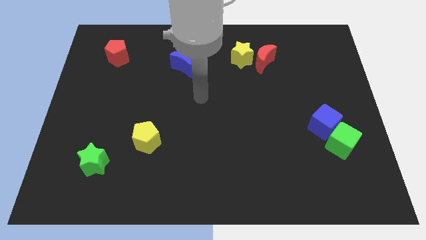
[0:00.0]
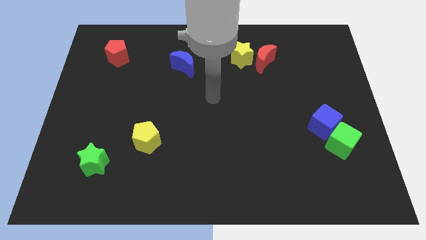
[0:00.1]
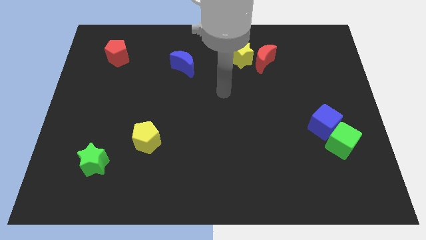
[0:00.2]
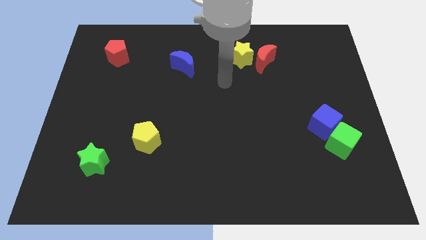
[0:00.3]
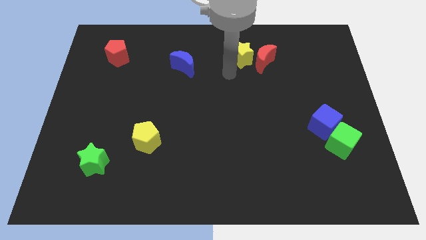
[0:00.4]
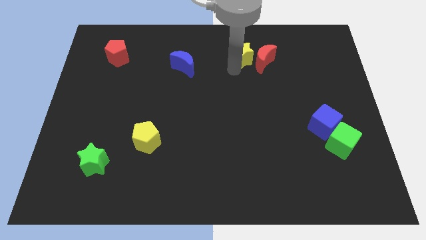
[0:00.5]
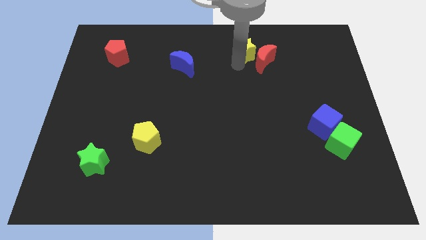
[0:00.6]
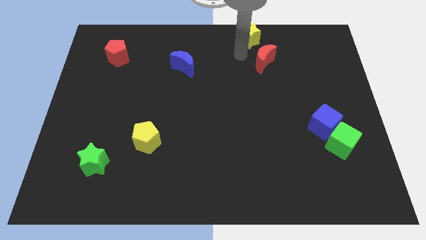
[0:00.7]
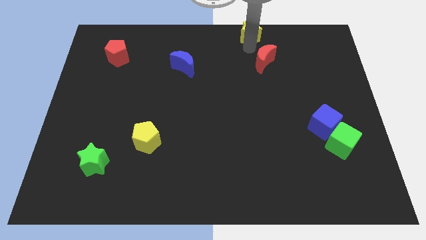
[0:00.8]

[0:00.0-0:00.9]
pull the red moon apart from the yellow star

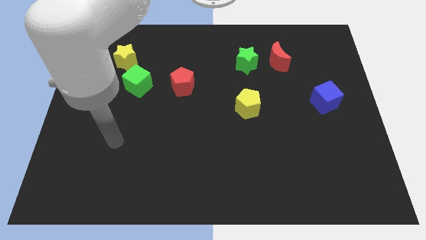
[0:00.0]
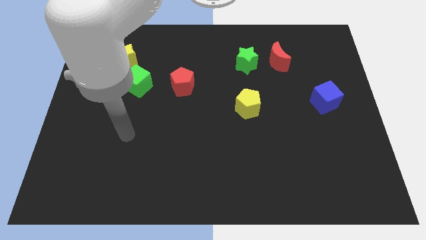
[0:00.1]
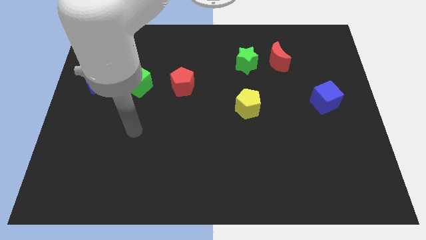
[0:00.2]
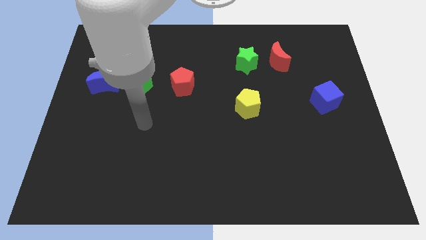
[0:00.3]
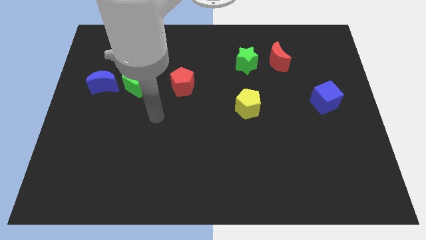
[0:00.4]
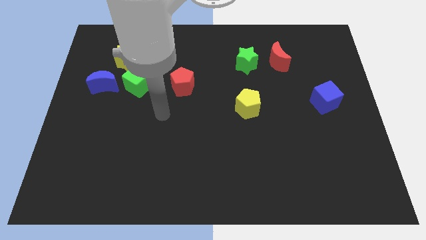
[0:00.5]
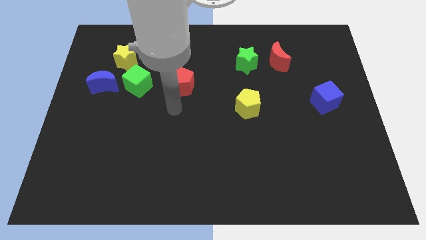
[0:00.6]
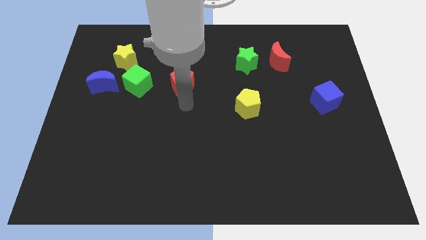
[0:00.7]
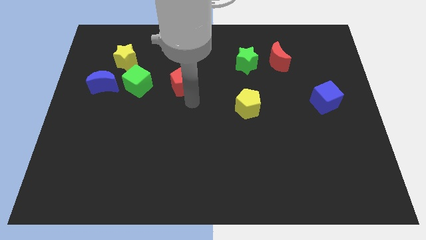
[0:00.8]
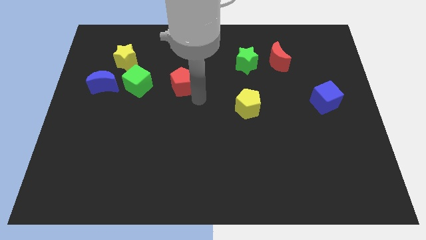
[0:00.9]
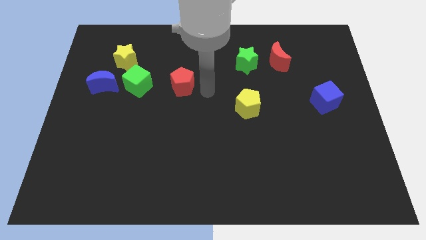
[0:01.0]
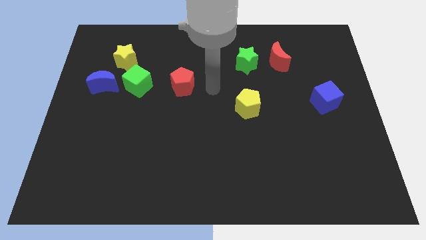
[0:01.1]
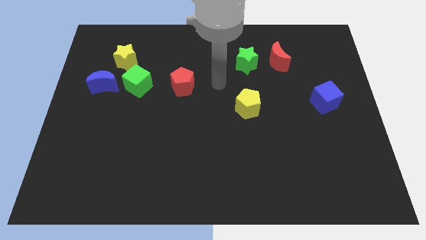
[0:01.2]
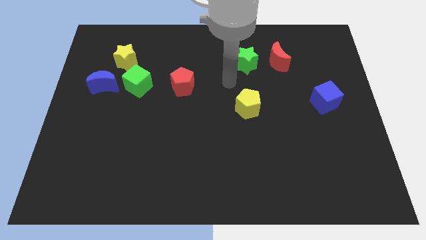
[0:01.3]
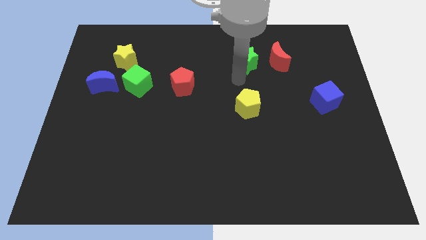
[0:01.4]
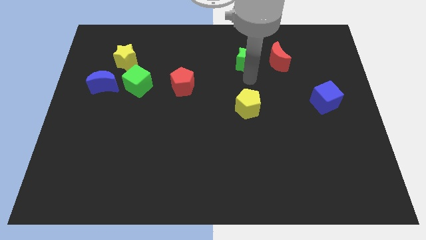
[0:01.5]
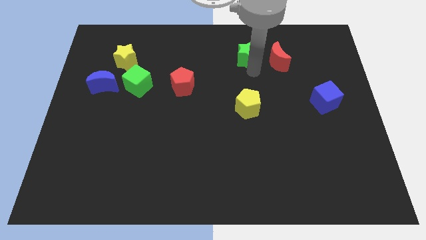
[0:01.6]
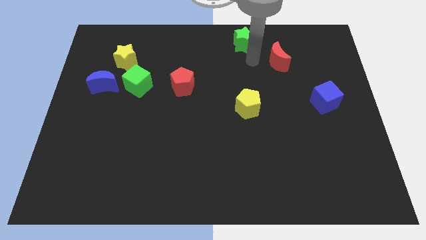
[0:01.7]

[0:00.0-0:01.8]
move the red moon away from the green star

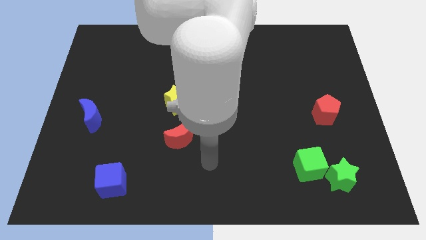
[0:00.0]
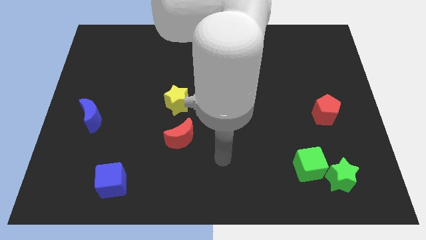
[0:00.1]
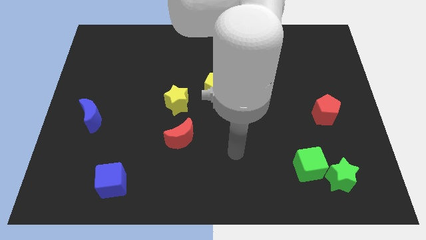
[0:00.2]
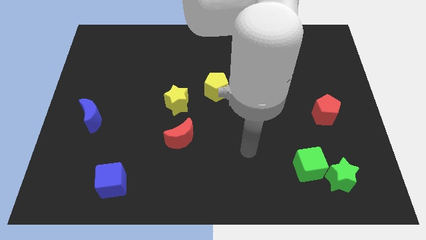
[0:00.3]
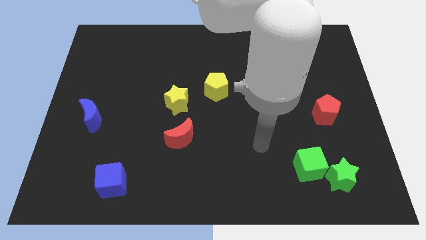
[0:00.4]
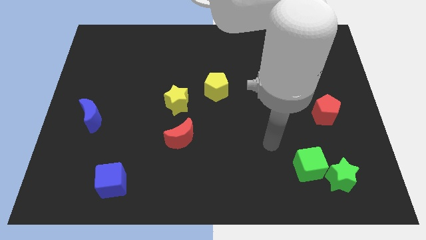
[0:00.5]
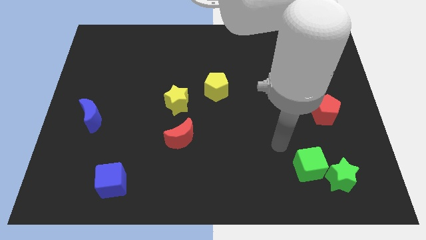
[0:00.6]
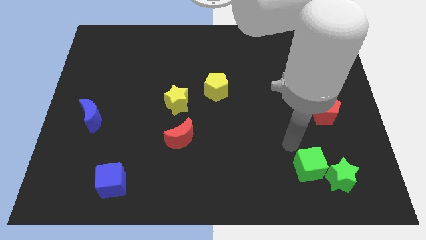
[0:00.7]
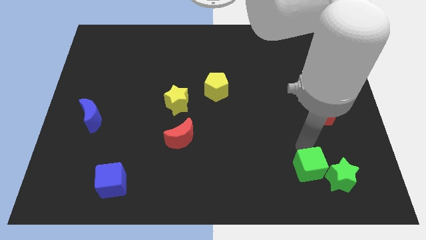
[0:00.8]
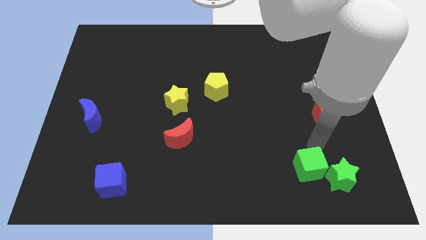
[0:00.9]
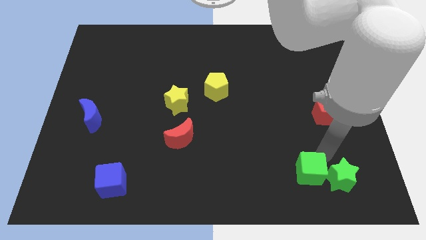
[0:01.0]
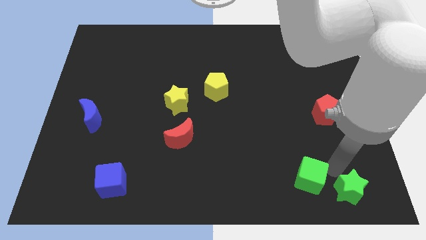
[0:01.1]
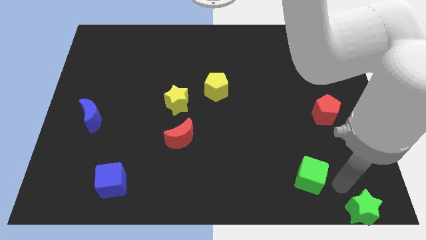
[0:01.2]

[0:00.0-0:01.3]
separate the green cube from the green star

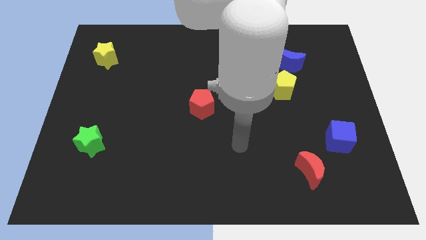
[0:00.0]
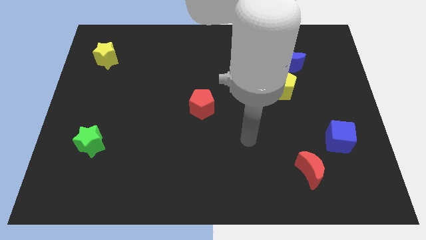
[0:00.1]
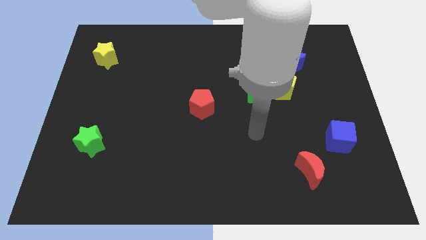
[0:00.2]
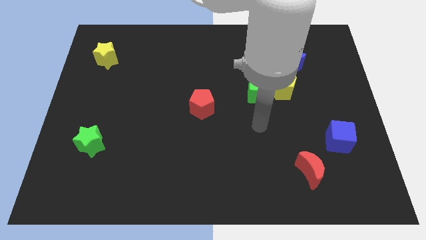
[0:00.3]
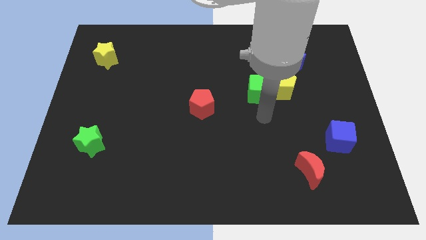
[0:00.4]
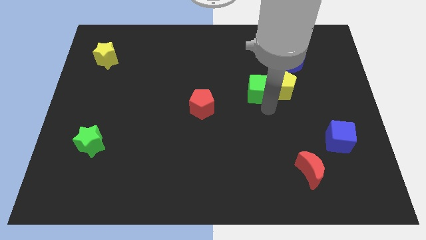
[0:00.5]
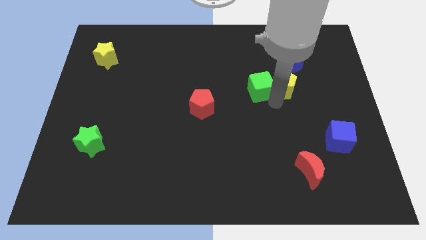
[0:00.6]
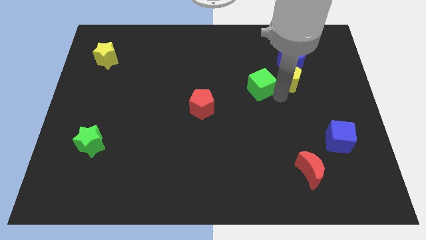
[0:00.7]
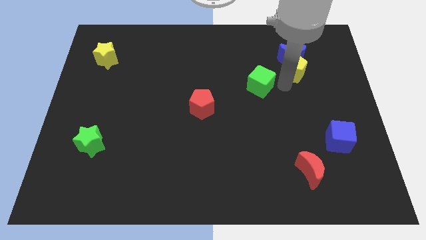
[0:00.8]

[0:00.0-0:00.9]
move the green cube away from the yellow pentagon

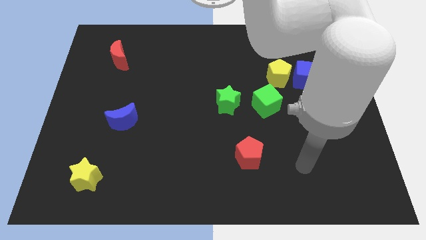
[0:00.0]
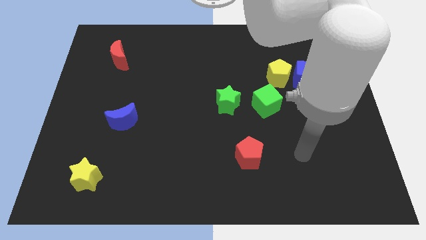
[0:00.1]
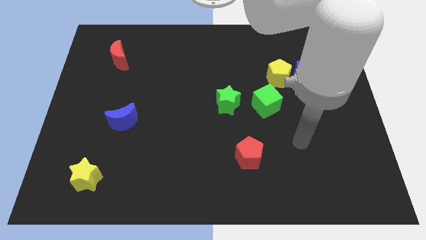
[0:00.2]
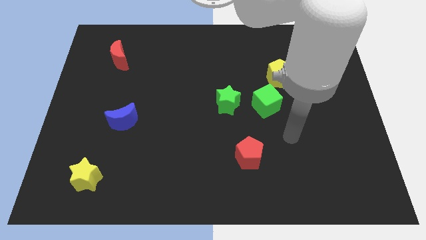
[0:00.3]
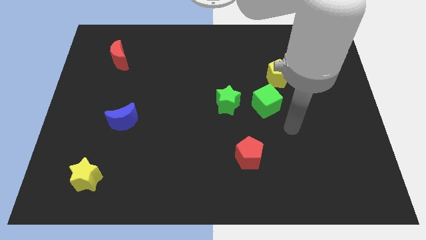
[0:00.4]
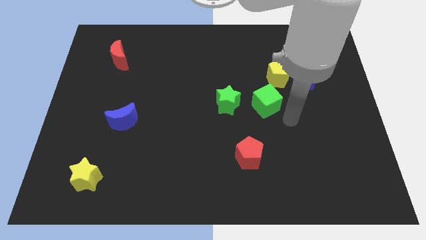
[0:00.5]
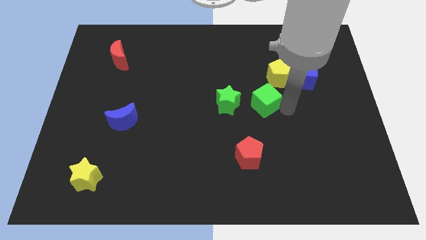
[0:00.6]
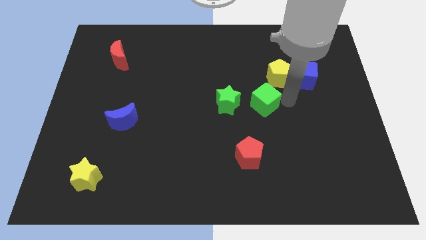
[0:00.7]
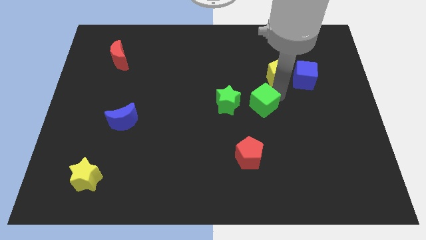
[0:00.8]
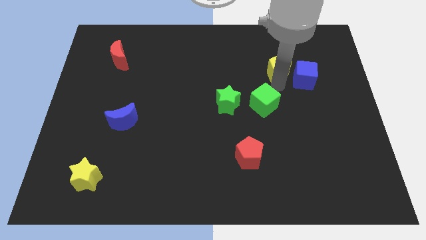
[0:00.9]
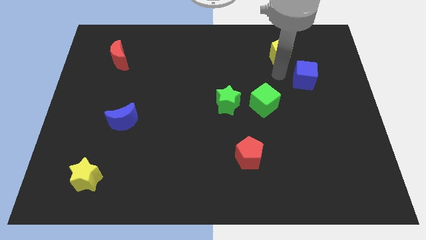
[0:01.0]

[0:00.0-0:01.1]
separate the blue cube from the yellow pentagon

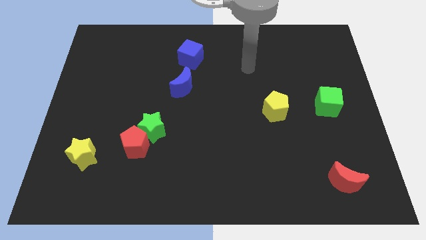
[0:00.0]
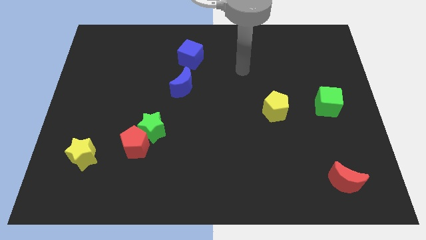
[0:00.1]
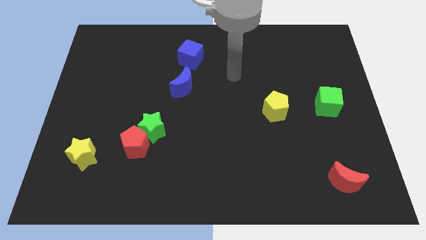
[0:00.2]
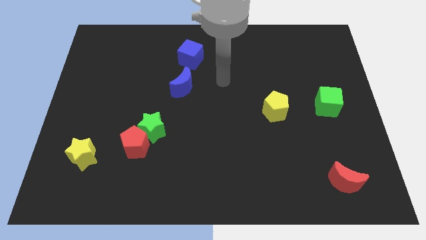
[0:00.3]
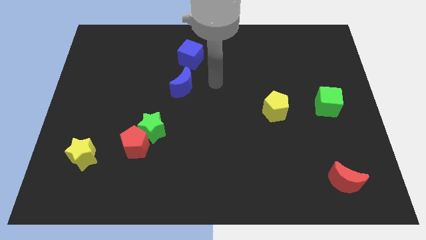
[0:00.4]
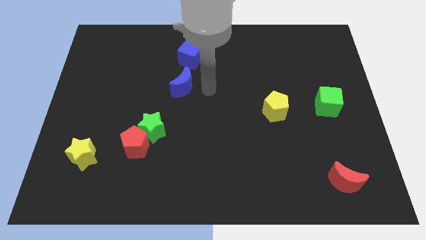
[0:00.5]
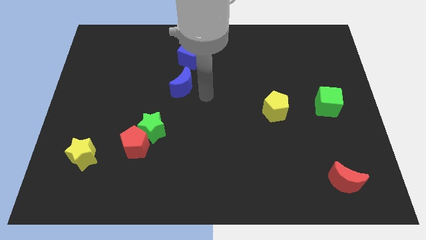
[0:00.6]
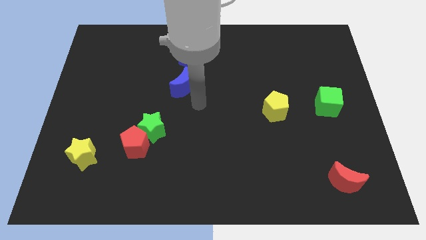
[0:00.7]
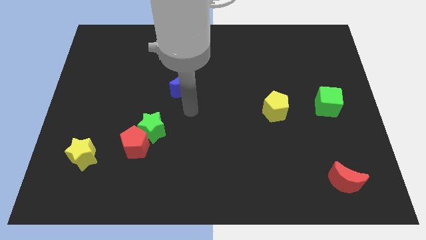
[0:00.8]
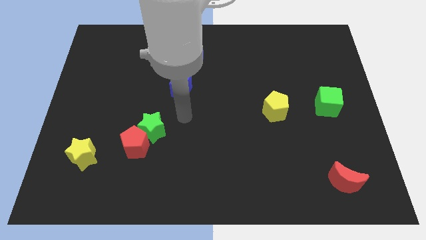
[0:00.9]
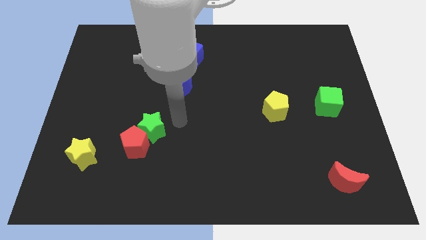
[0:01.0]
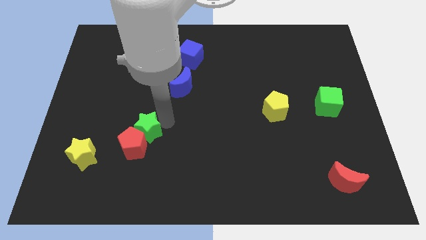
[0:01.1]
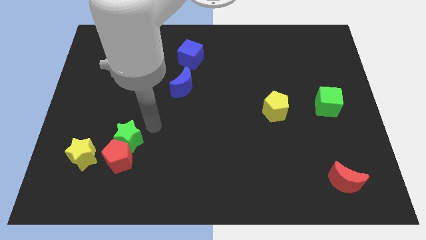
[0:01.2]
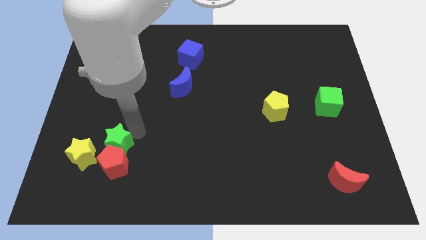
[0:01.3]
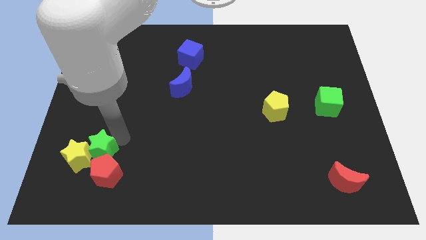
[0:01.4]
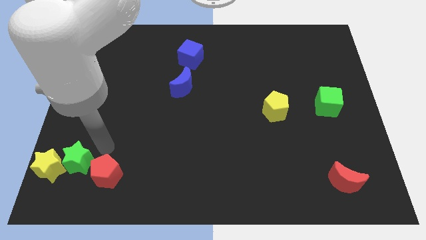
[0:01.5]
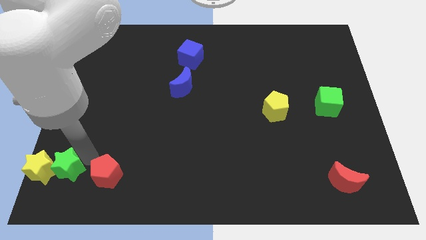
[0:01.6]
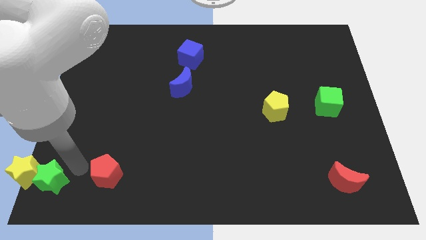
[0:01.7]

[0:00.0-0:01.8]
separate the red pentagon from the green star

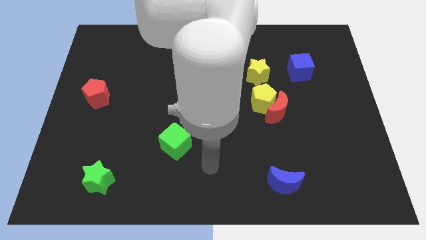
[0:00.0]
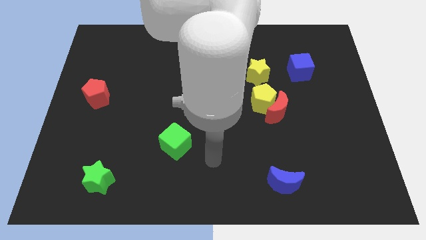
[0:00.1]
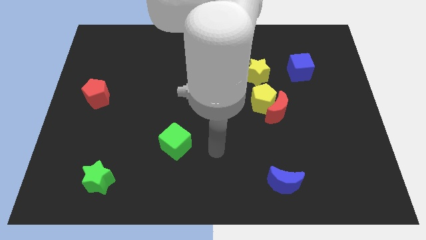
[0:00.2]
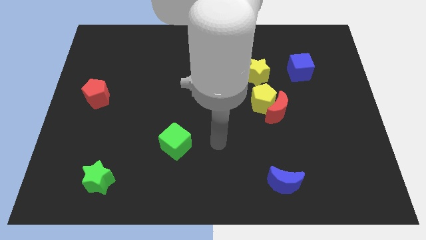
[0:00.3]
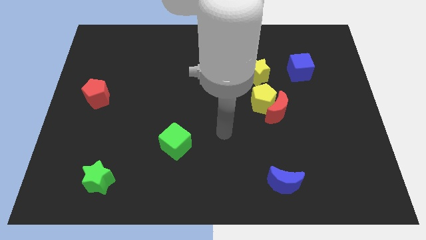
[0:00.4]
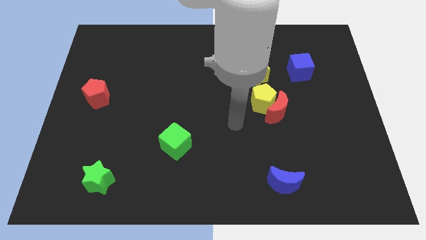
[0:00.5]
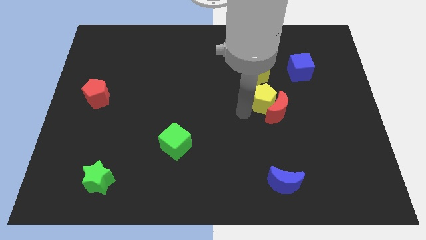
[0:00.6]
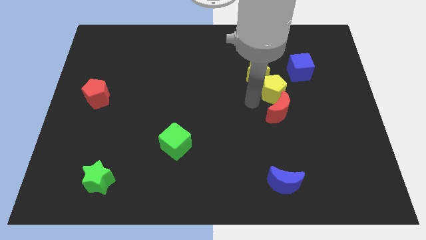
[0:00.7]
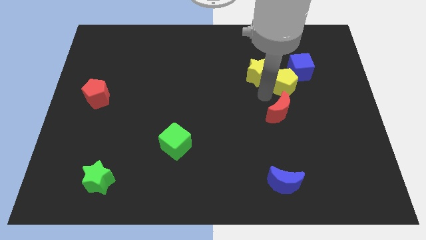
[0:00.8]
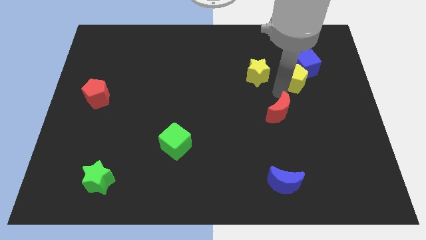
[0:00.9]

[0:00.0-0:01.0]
pull the red moon apart from the yellow pentagon

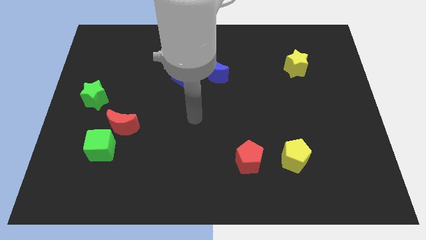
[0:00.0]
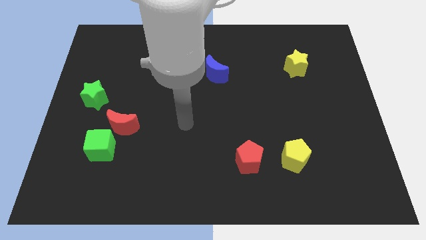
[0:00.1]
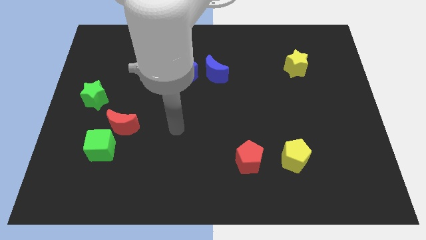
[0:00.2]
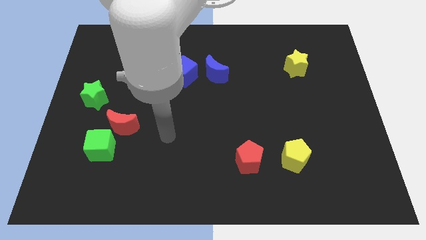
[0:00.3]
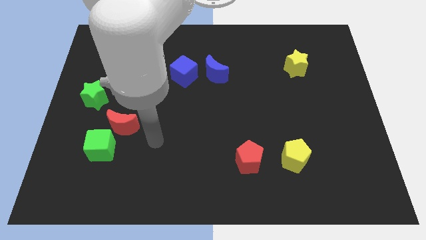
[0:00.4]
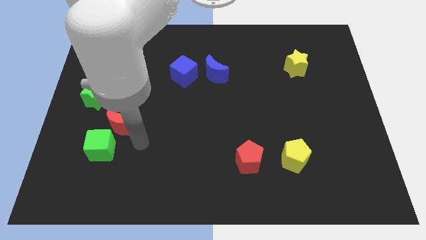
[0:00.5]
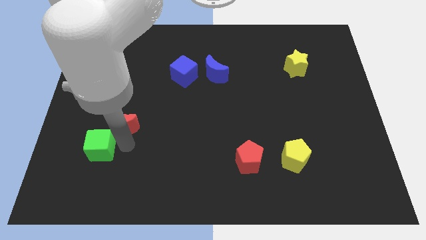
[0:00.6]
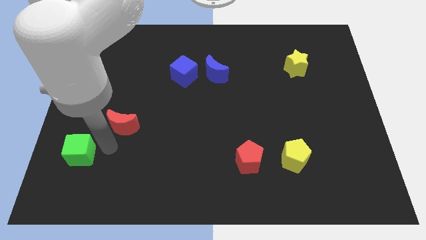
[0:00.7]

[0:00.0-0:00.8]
move the red moon away from the green cube
